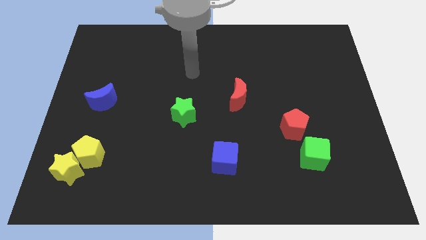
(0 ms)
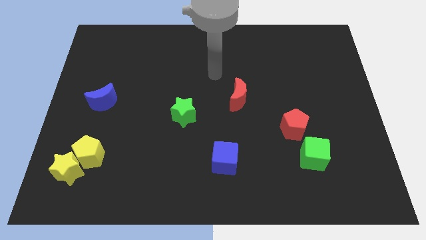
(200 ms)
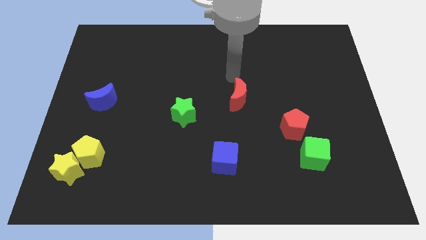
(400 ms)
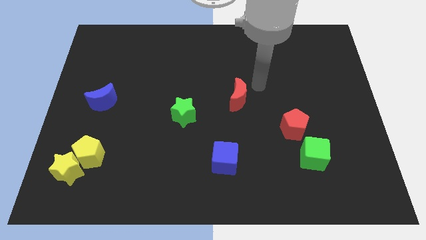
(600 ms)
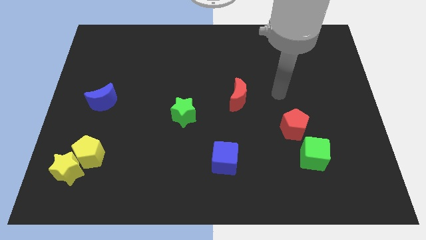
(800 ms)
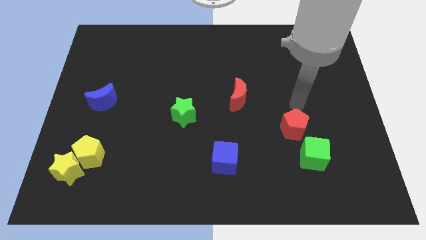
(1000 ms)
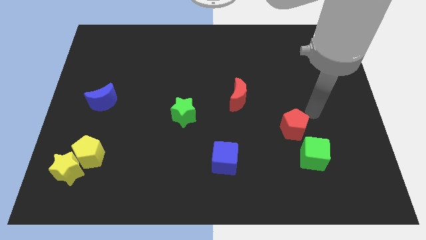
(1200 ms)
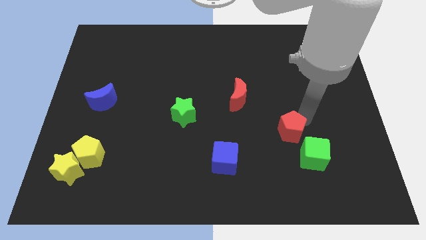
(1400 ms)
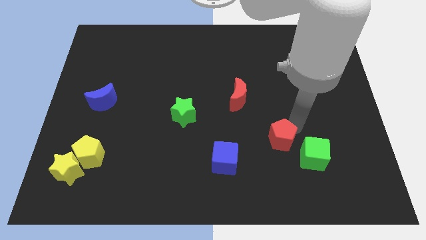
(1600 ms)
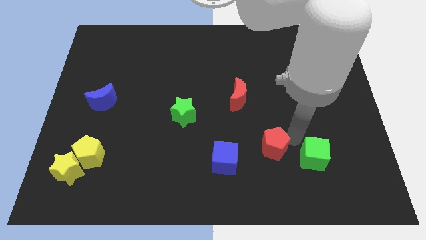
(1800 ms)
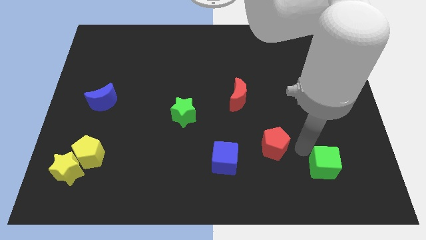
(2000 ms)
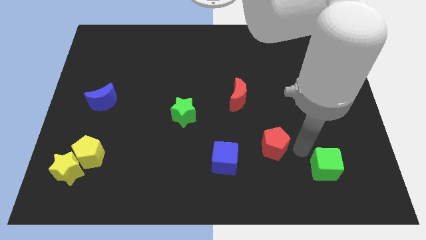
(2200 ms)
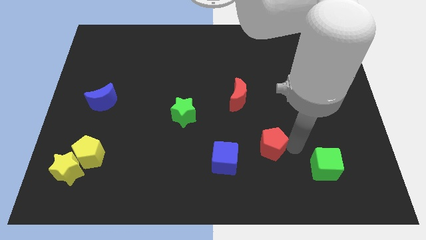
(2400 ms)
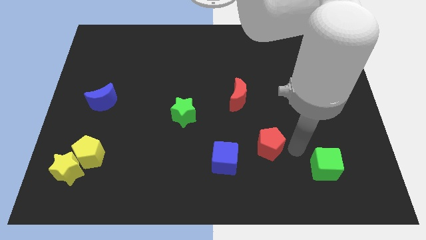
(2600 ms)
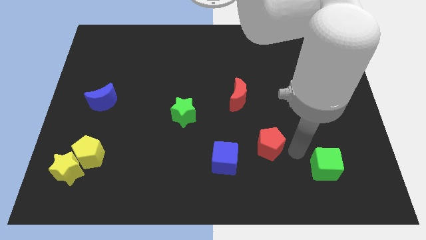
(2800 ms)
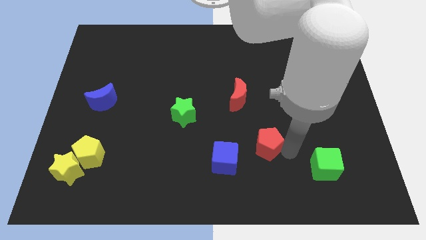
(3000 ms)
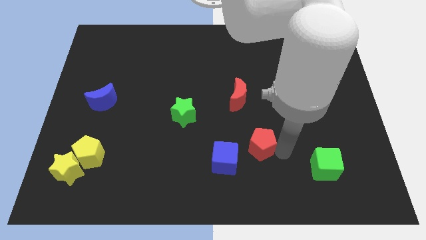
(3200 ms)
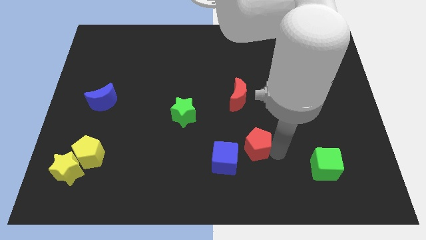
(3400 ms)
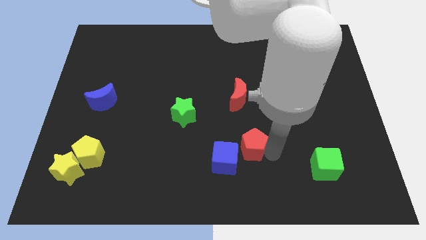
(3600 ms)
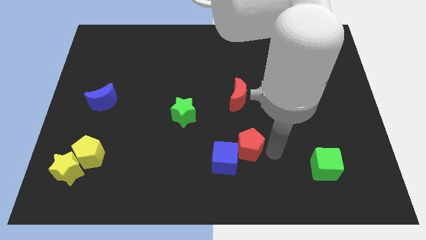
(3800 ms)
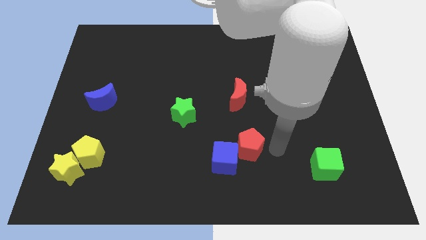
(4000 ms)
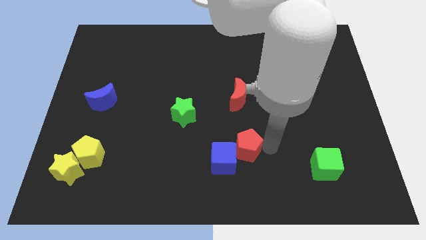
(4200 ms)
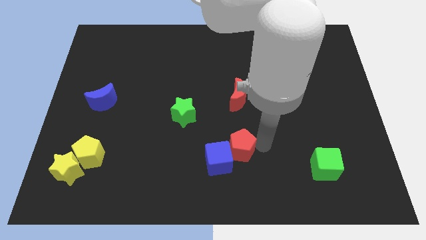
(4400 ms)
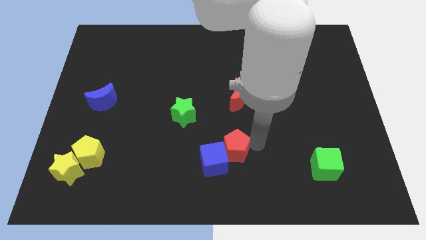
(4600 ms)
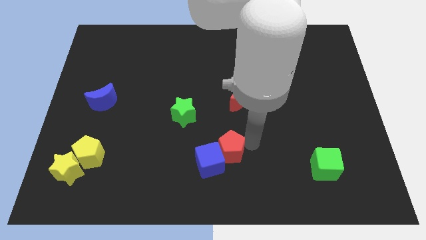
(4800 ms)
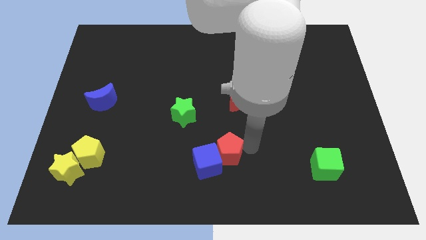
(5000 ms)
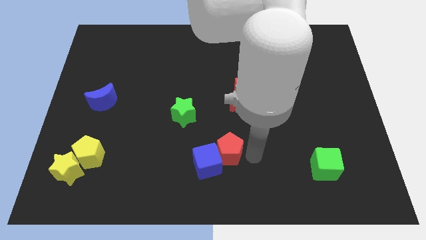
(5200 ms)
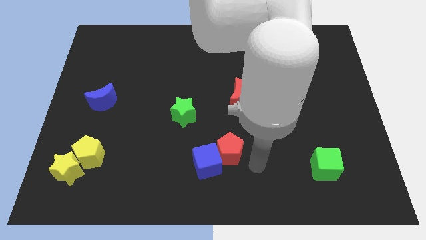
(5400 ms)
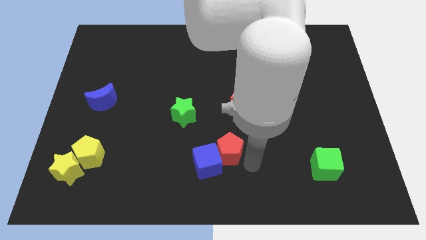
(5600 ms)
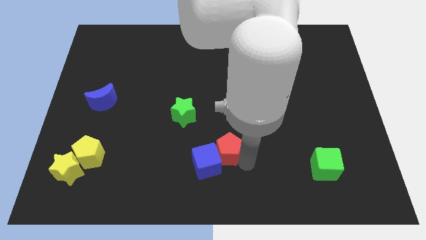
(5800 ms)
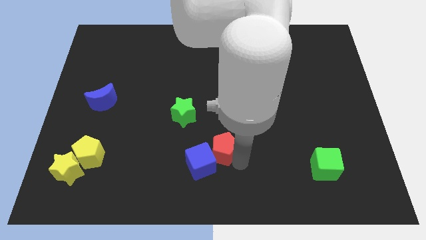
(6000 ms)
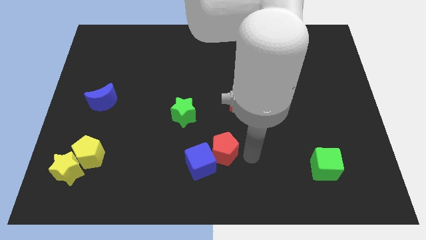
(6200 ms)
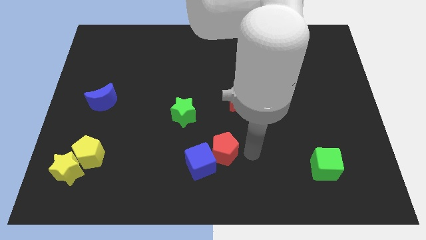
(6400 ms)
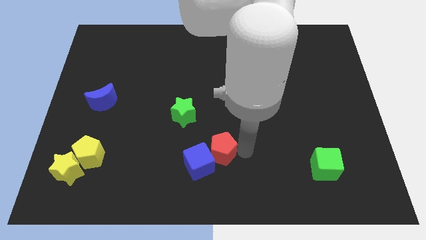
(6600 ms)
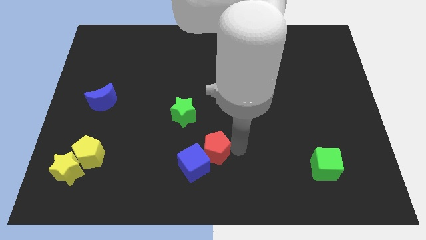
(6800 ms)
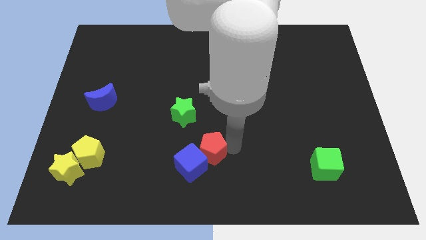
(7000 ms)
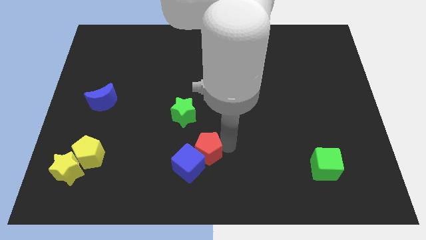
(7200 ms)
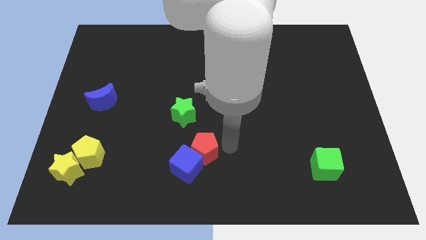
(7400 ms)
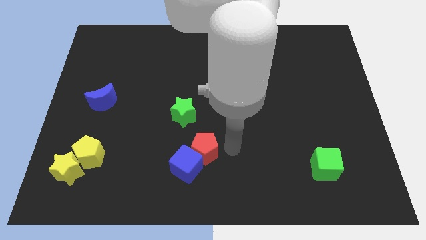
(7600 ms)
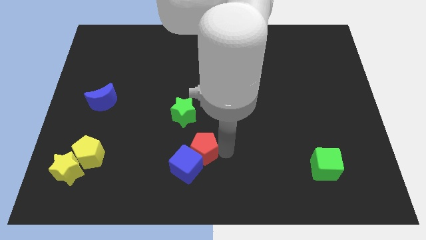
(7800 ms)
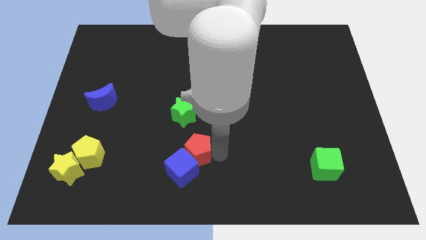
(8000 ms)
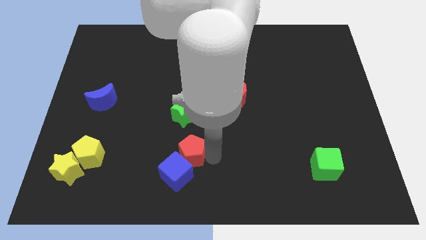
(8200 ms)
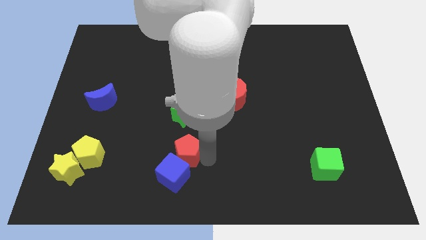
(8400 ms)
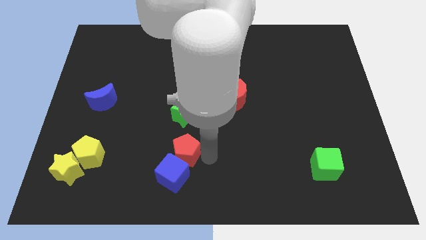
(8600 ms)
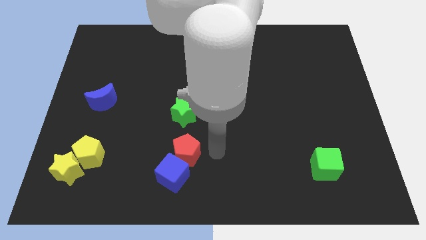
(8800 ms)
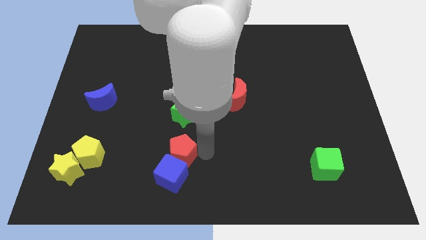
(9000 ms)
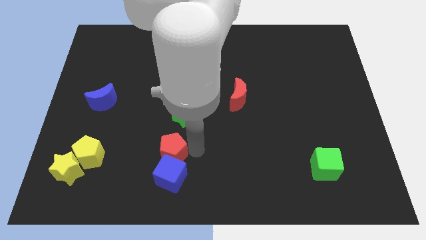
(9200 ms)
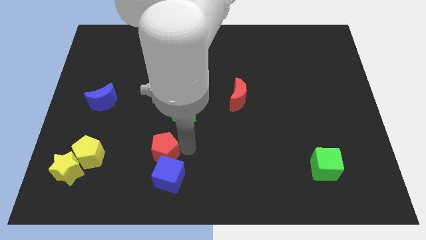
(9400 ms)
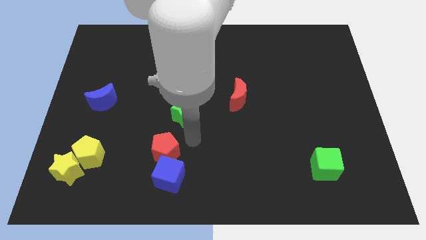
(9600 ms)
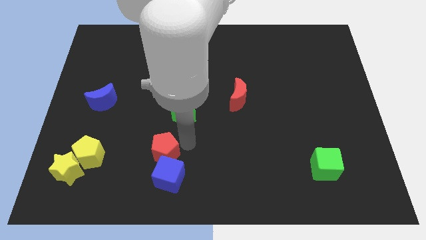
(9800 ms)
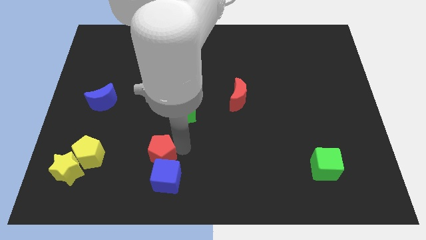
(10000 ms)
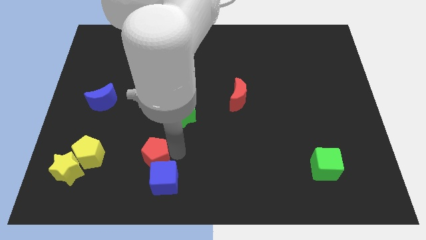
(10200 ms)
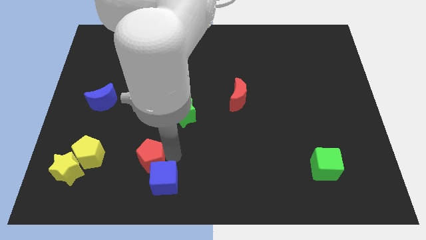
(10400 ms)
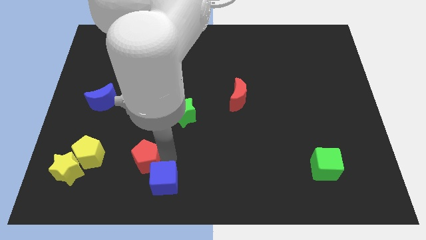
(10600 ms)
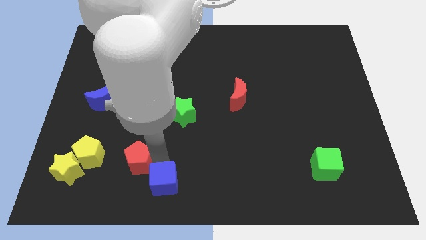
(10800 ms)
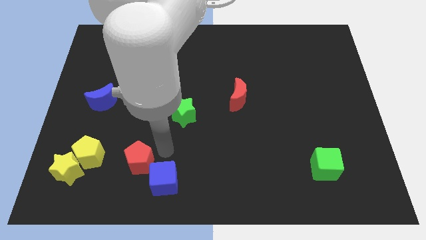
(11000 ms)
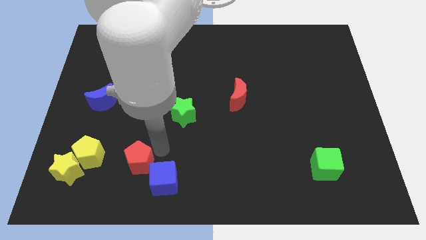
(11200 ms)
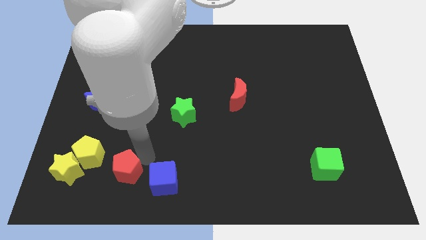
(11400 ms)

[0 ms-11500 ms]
slide the red pentagon diagonally down and to the right of the yellow pentagon

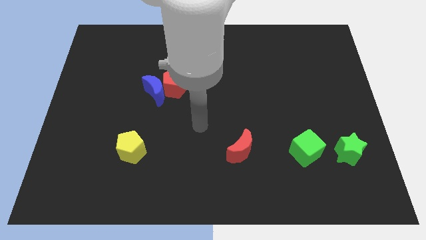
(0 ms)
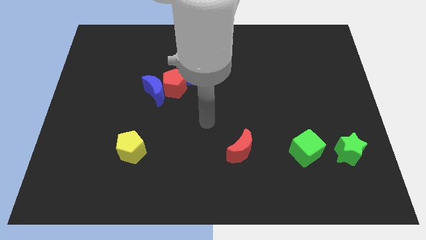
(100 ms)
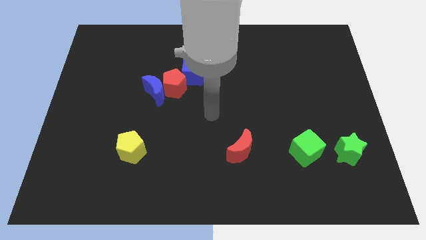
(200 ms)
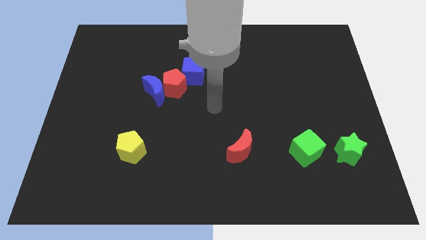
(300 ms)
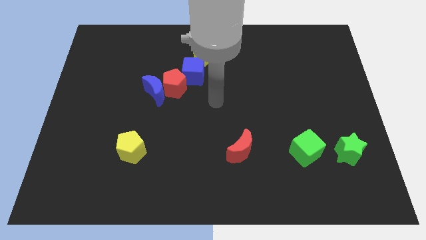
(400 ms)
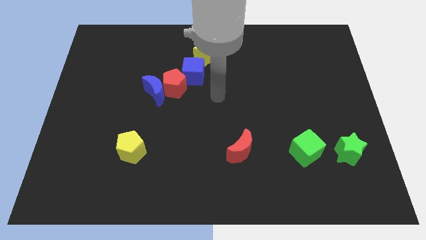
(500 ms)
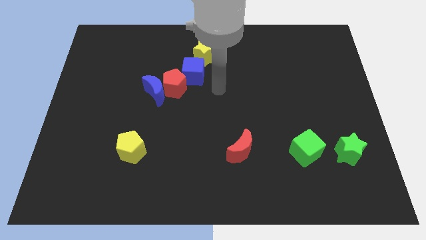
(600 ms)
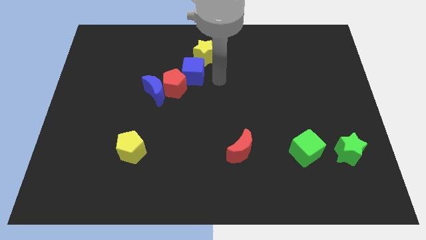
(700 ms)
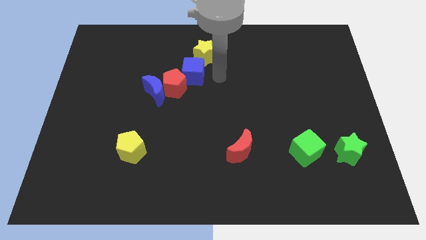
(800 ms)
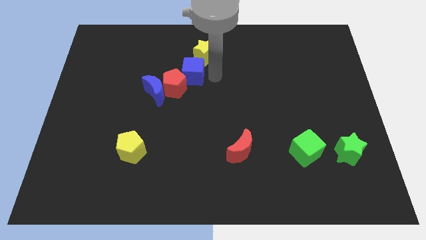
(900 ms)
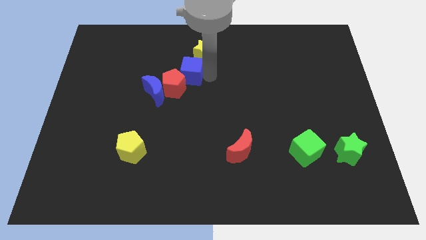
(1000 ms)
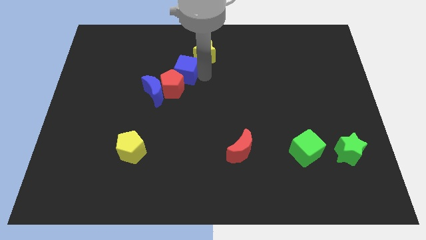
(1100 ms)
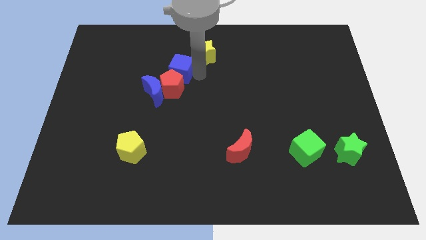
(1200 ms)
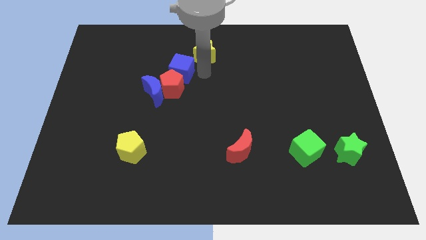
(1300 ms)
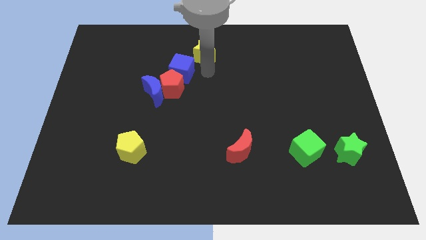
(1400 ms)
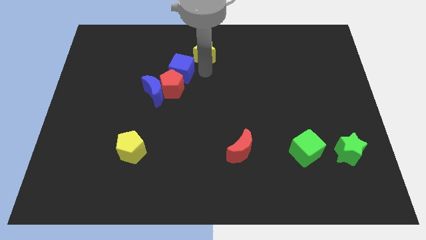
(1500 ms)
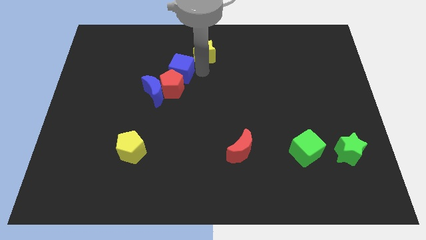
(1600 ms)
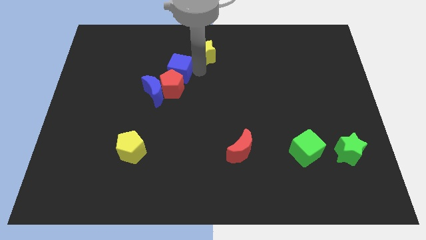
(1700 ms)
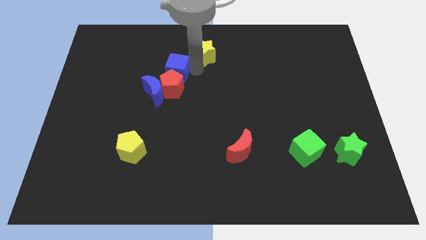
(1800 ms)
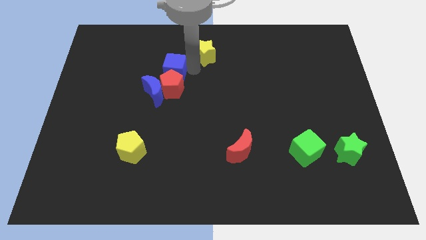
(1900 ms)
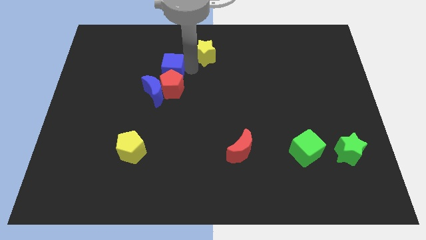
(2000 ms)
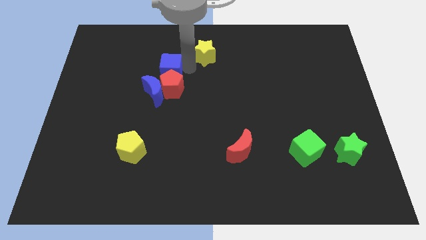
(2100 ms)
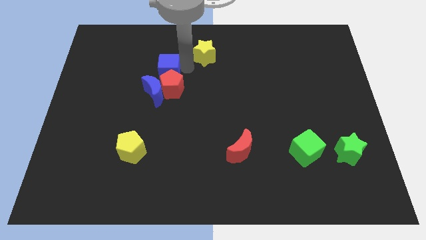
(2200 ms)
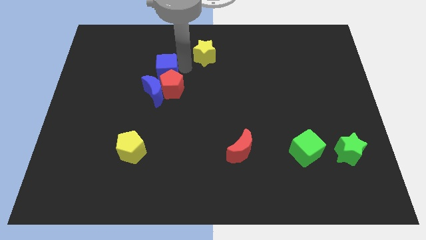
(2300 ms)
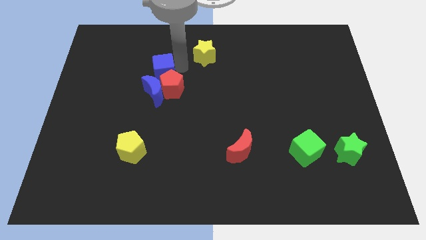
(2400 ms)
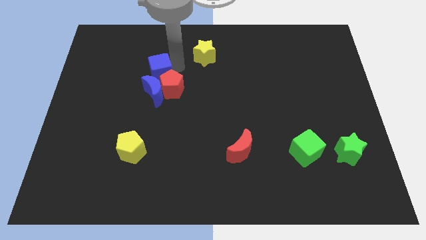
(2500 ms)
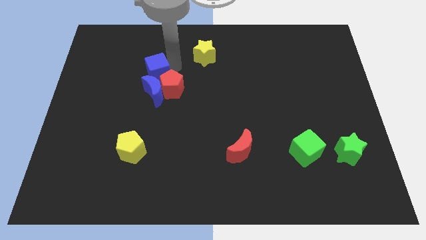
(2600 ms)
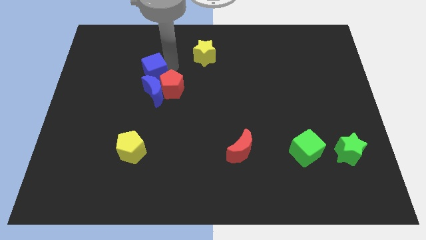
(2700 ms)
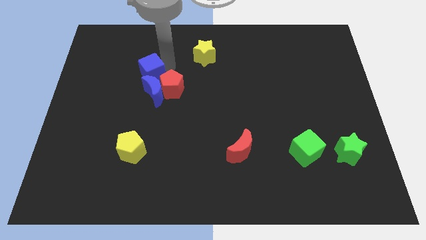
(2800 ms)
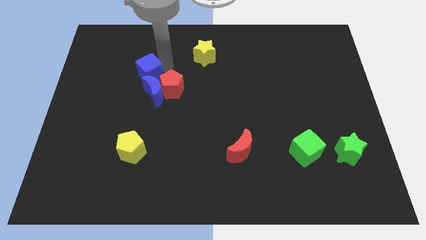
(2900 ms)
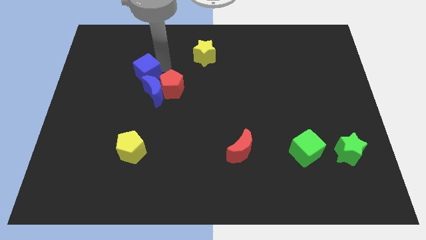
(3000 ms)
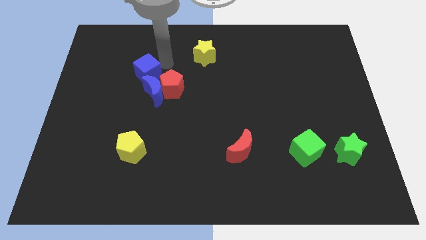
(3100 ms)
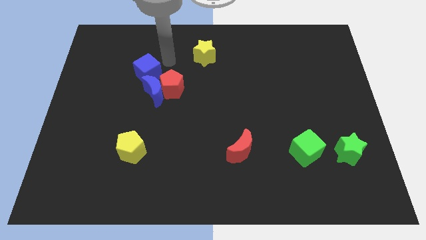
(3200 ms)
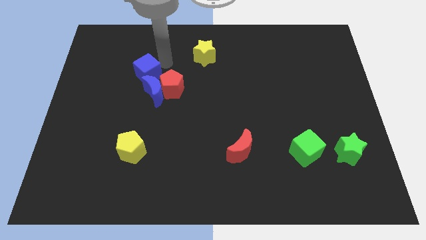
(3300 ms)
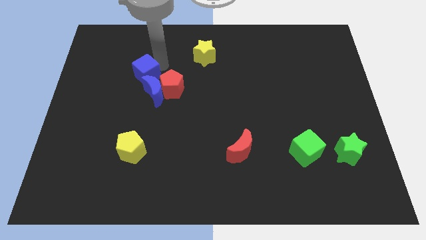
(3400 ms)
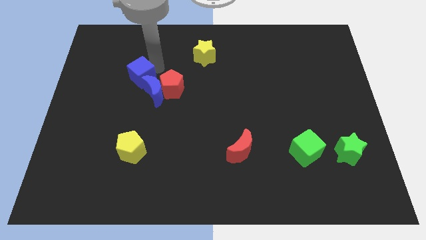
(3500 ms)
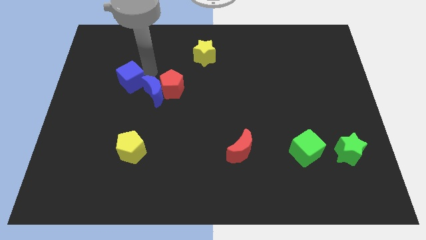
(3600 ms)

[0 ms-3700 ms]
push the blue cube to the left of the blue moon
